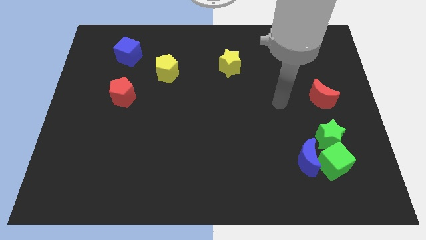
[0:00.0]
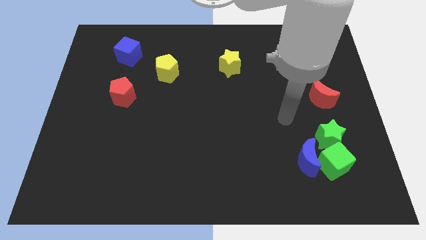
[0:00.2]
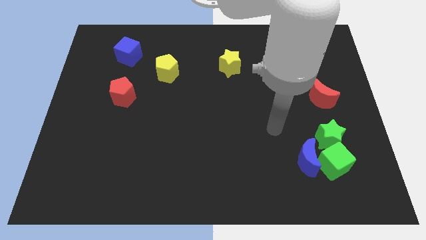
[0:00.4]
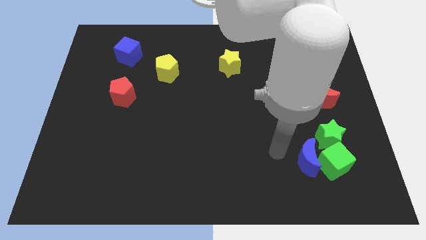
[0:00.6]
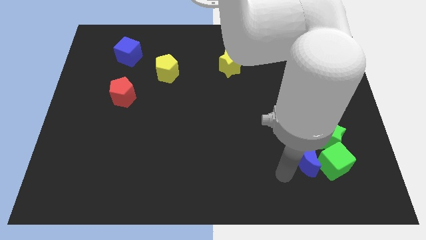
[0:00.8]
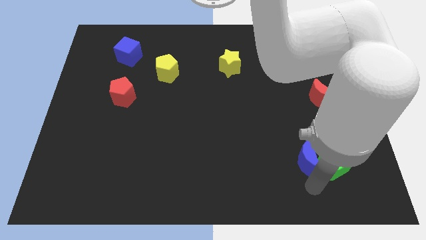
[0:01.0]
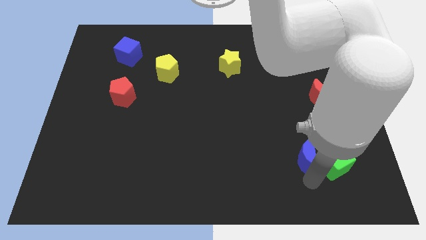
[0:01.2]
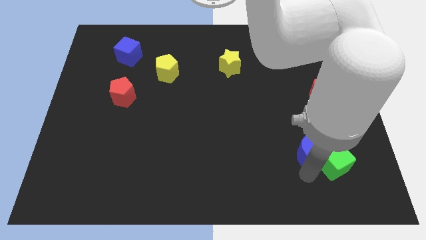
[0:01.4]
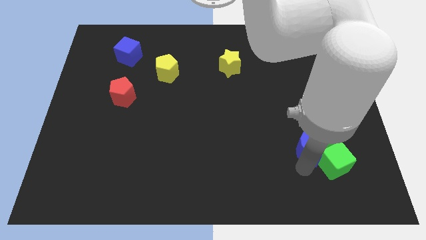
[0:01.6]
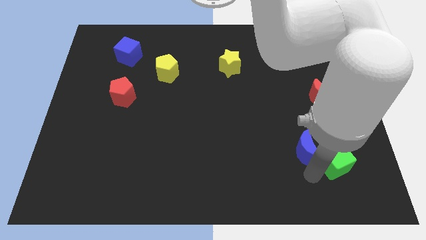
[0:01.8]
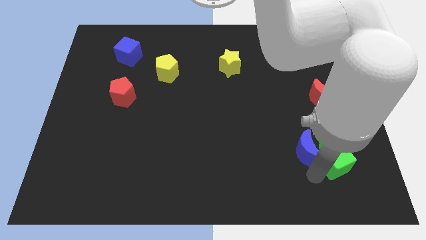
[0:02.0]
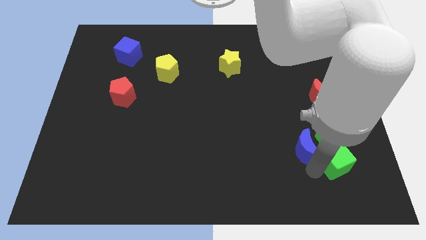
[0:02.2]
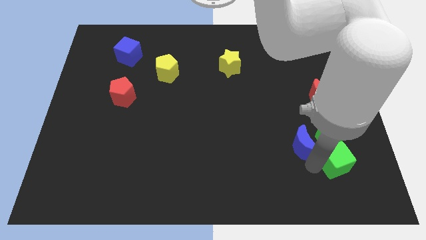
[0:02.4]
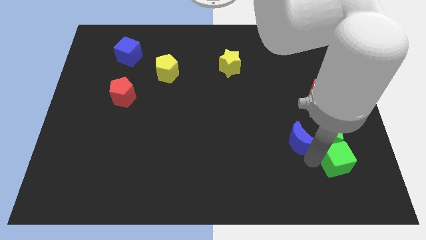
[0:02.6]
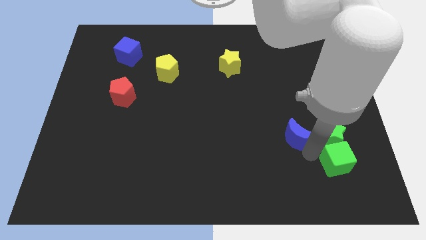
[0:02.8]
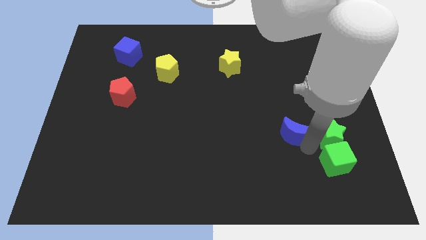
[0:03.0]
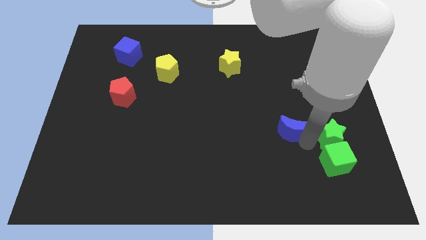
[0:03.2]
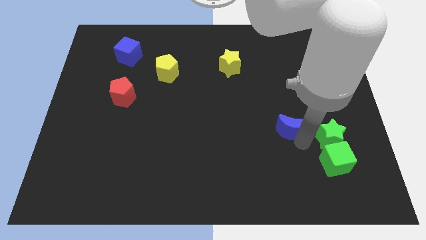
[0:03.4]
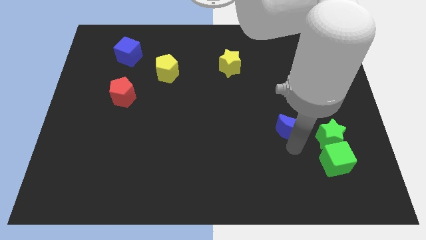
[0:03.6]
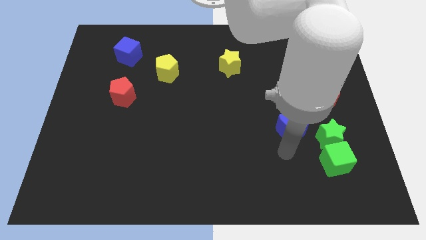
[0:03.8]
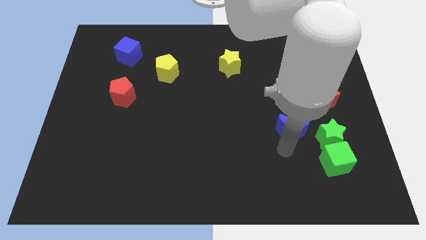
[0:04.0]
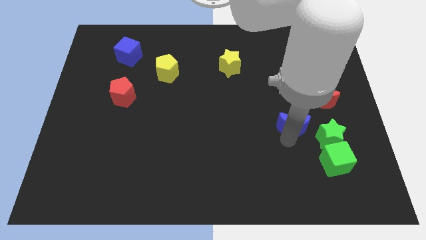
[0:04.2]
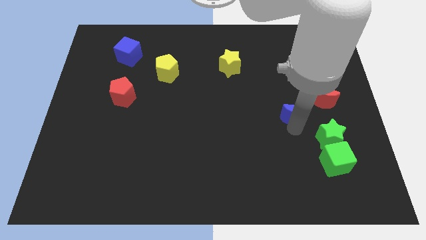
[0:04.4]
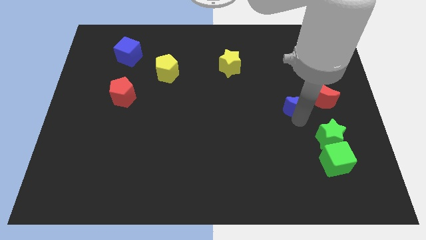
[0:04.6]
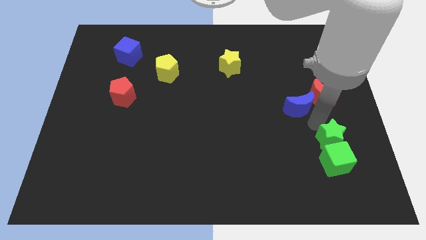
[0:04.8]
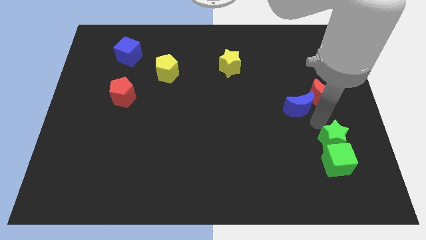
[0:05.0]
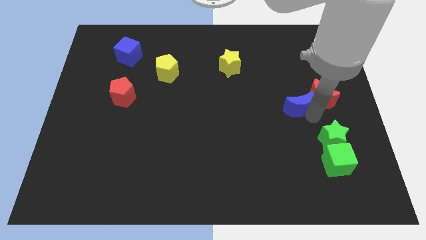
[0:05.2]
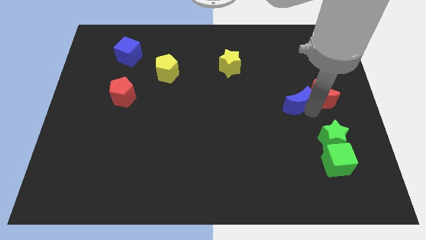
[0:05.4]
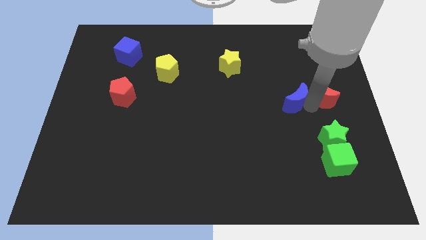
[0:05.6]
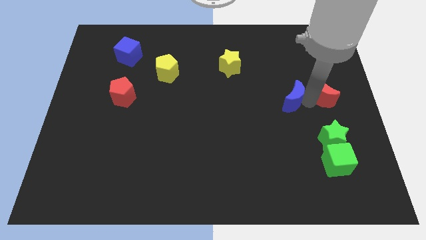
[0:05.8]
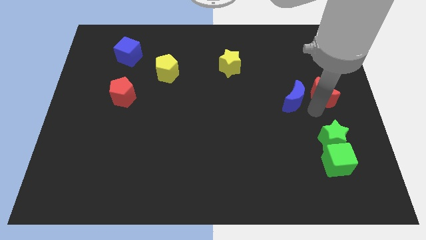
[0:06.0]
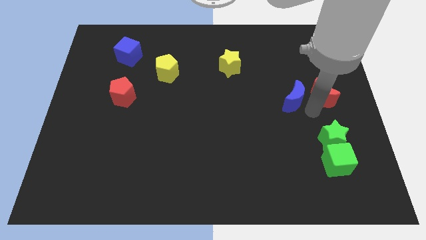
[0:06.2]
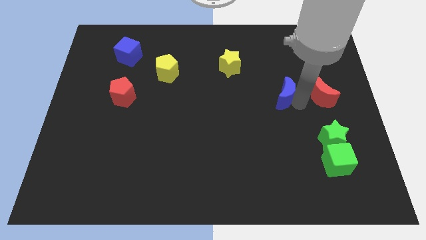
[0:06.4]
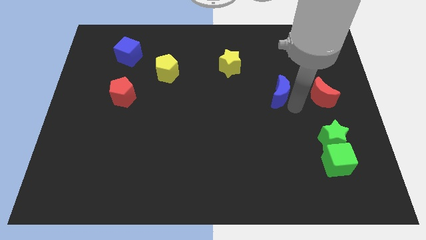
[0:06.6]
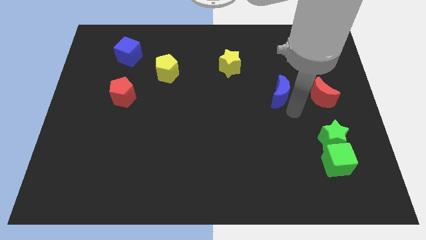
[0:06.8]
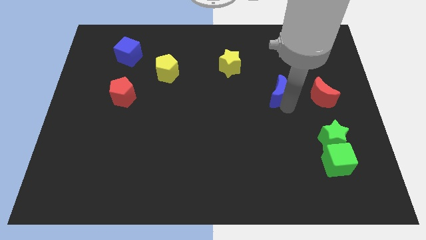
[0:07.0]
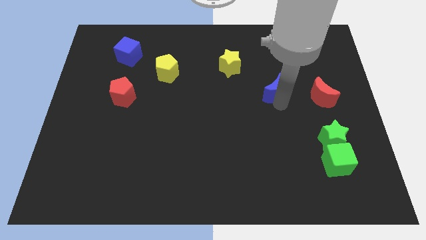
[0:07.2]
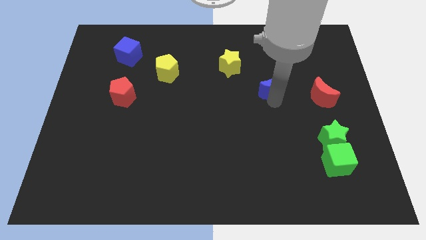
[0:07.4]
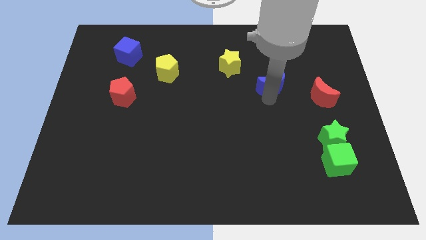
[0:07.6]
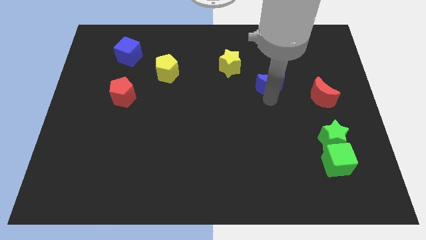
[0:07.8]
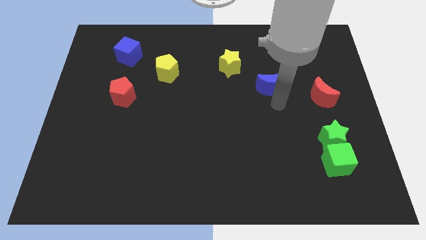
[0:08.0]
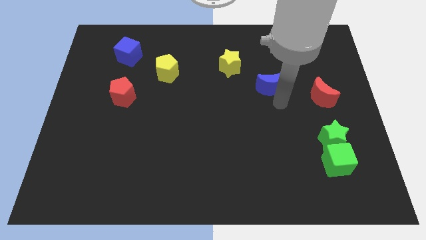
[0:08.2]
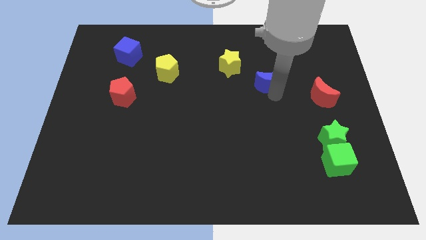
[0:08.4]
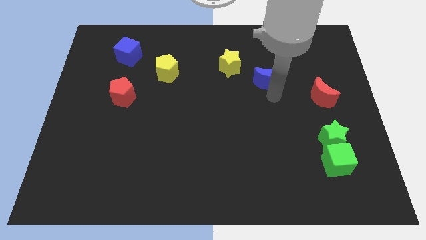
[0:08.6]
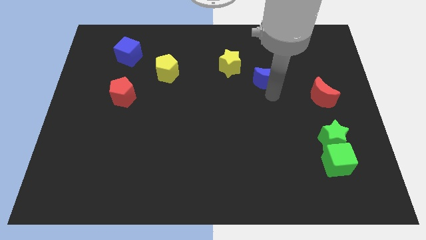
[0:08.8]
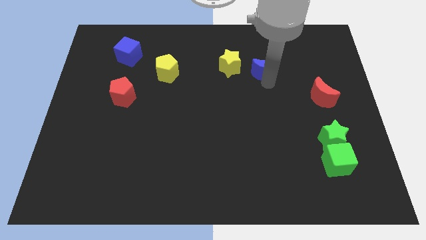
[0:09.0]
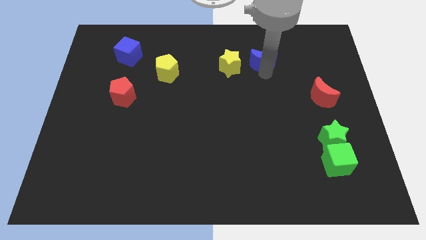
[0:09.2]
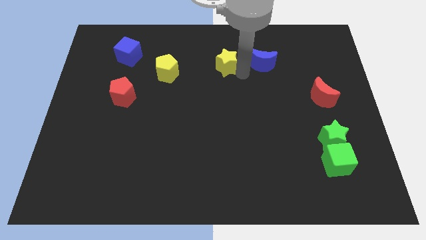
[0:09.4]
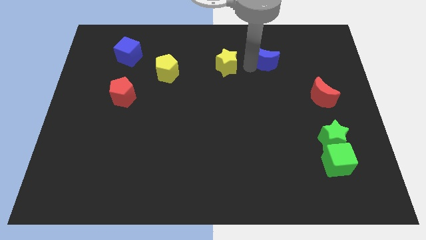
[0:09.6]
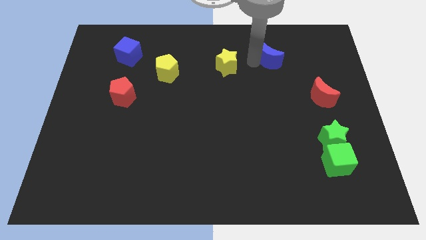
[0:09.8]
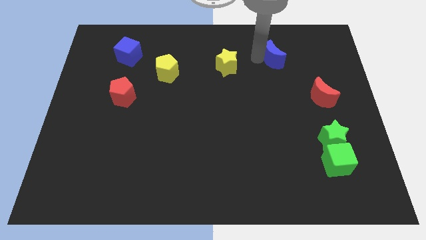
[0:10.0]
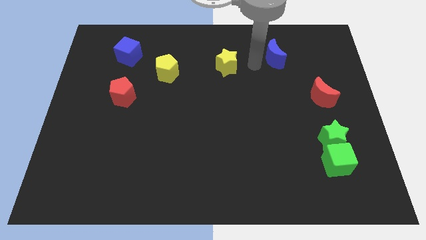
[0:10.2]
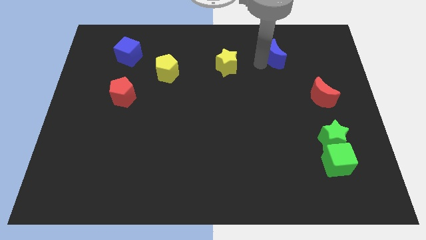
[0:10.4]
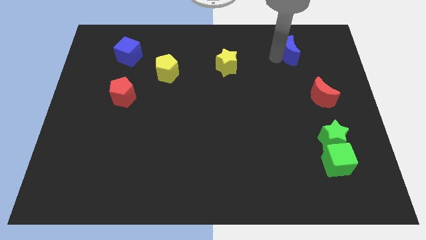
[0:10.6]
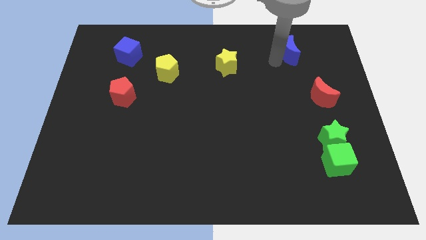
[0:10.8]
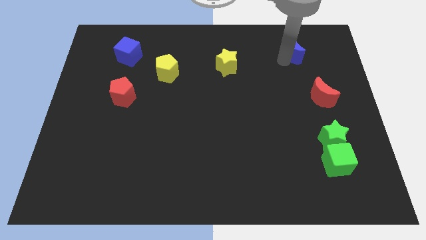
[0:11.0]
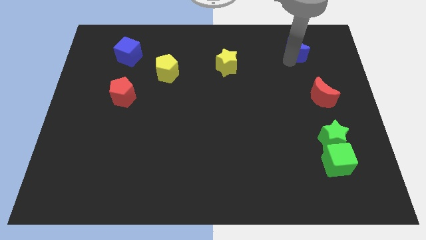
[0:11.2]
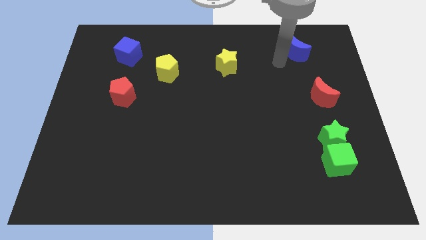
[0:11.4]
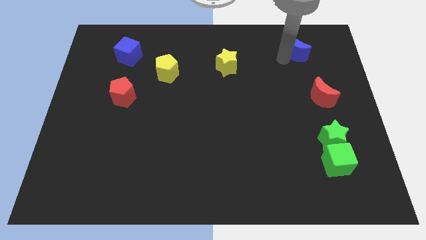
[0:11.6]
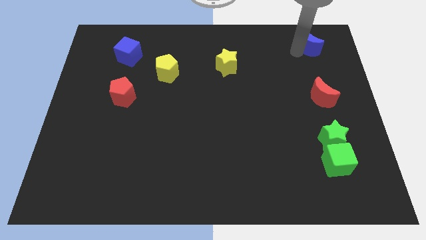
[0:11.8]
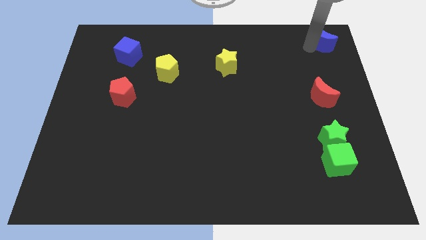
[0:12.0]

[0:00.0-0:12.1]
put the blue moon to the top right corner

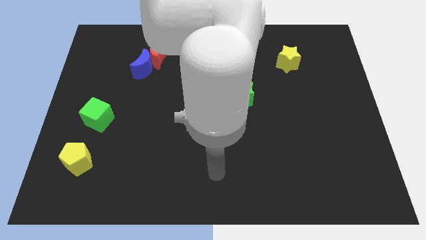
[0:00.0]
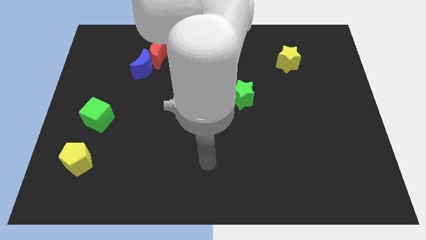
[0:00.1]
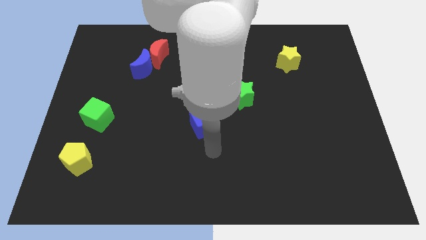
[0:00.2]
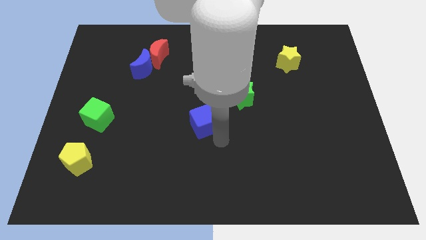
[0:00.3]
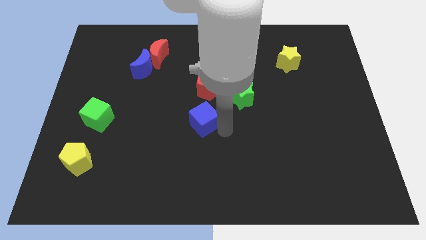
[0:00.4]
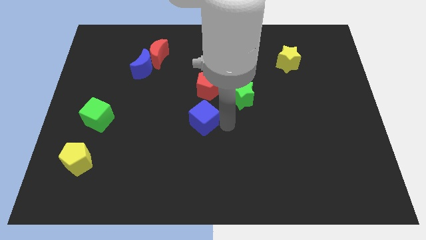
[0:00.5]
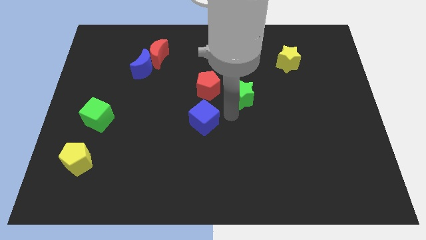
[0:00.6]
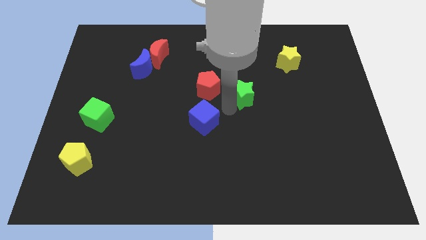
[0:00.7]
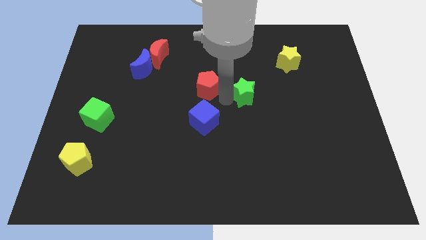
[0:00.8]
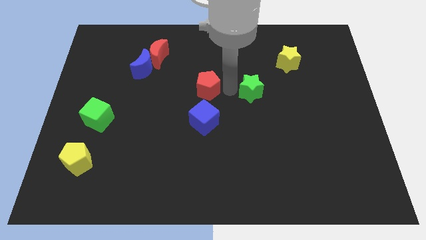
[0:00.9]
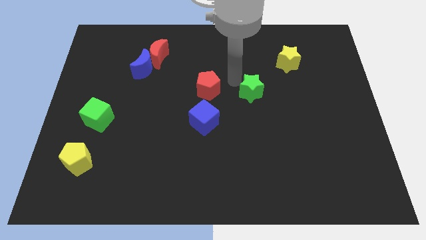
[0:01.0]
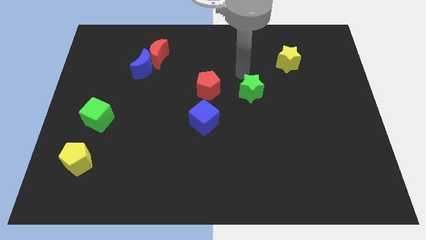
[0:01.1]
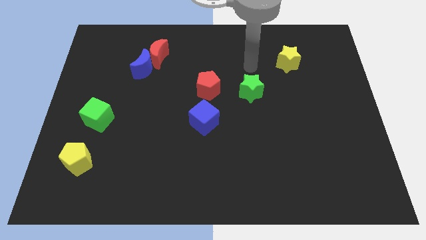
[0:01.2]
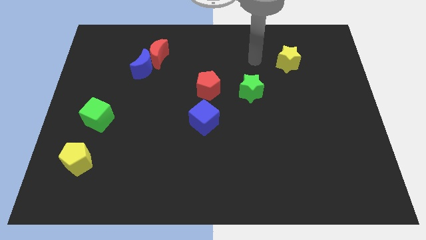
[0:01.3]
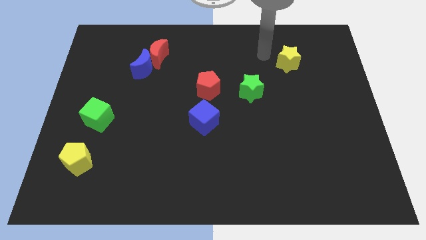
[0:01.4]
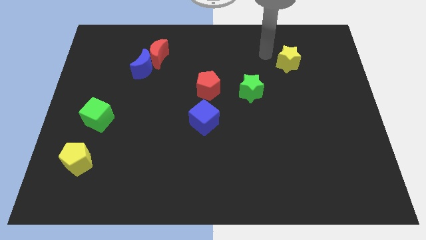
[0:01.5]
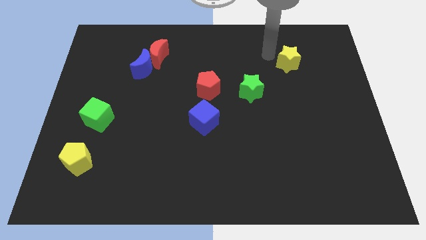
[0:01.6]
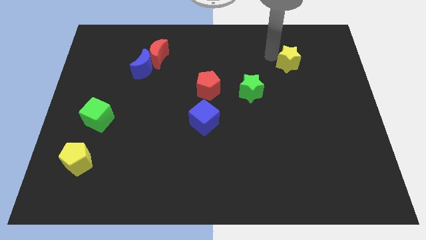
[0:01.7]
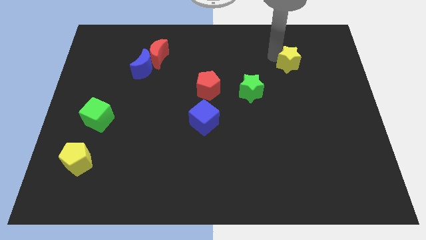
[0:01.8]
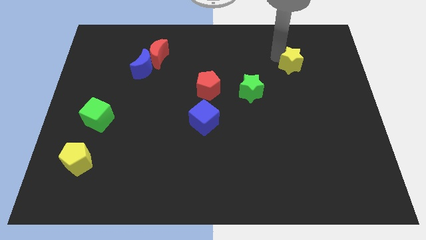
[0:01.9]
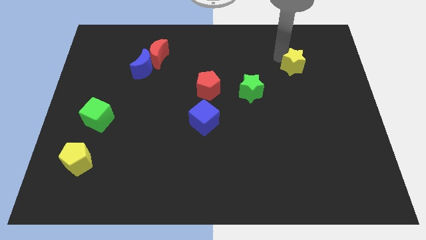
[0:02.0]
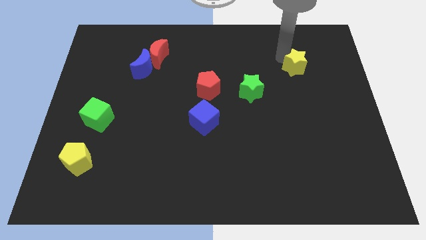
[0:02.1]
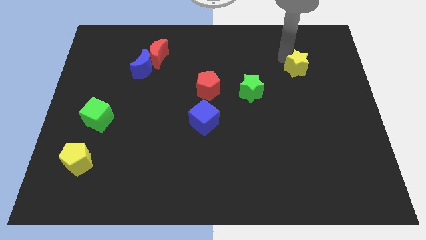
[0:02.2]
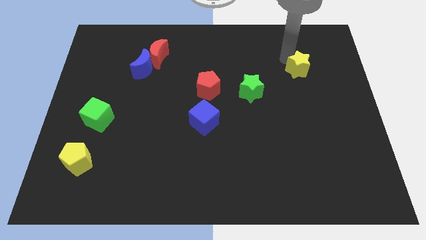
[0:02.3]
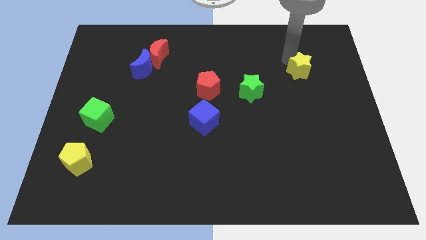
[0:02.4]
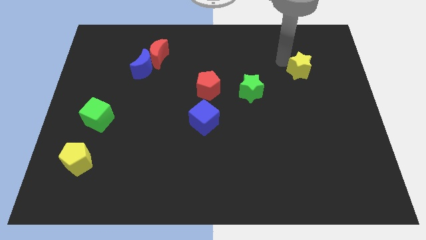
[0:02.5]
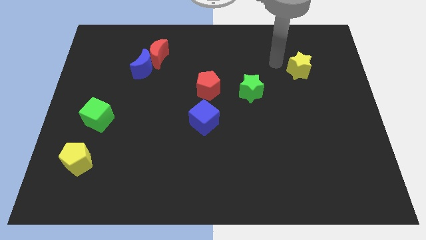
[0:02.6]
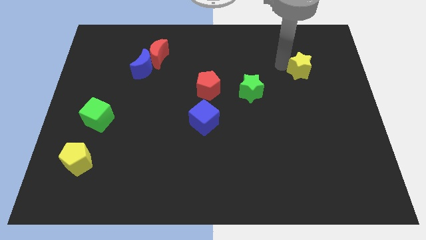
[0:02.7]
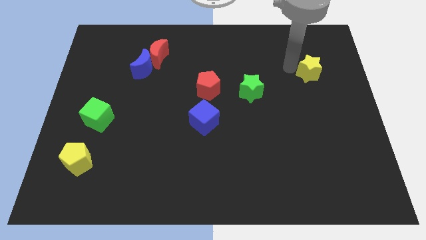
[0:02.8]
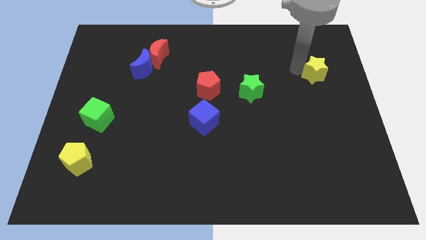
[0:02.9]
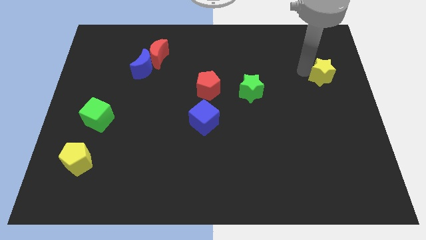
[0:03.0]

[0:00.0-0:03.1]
slide the yellow star to the right side
